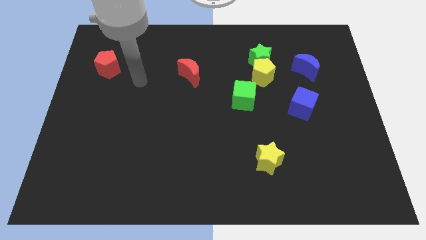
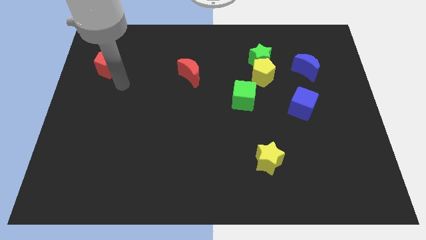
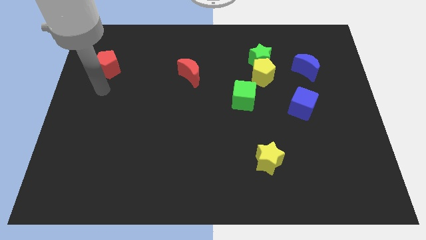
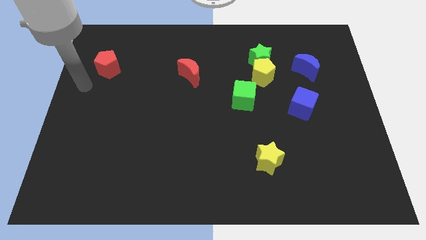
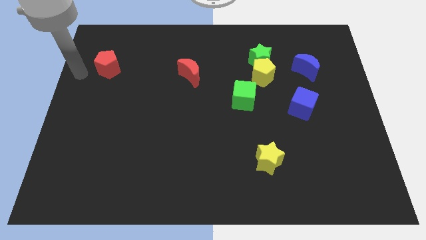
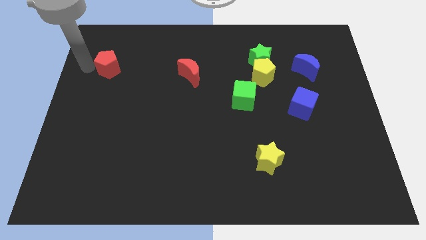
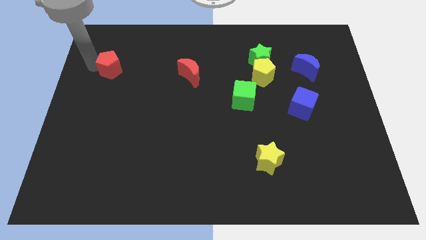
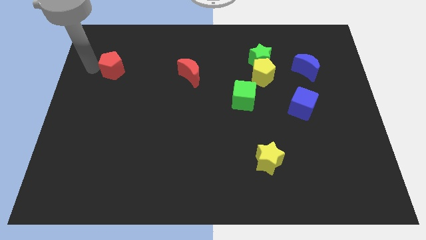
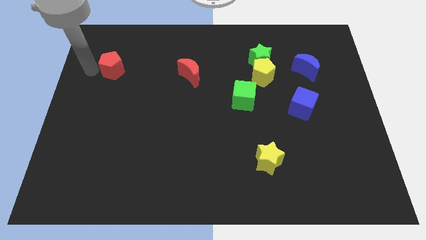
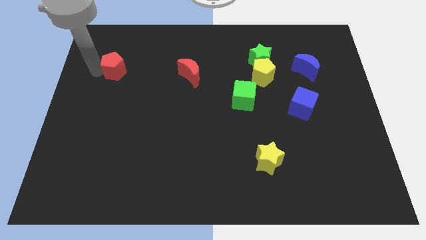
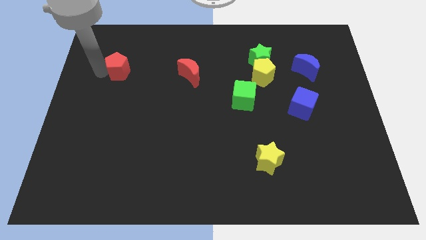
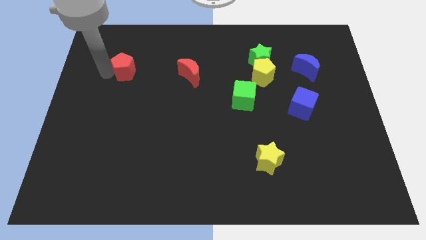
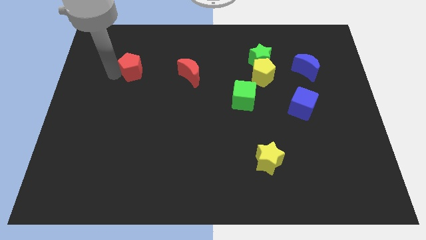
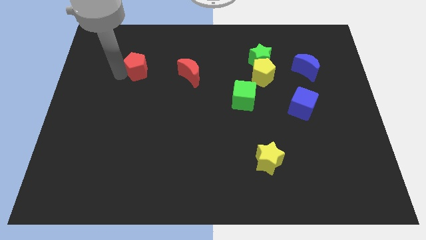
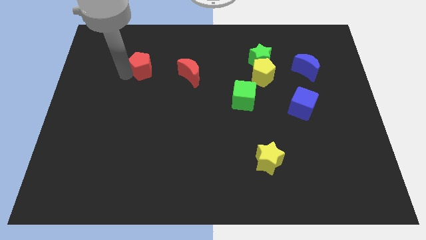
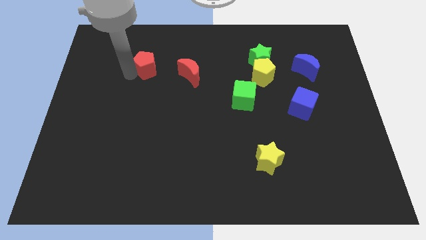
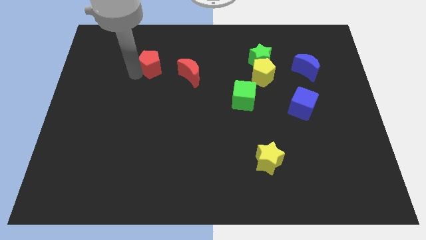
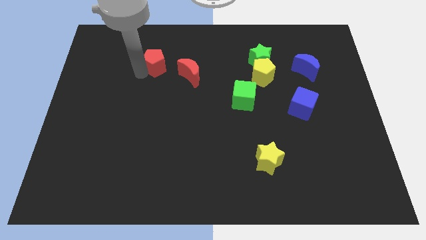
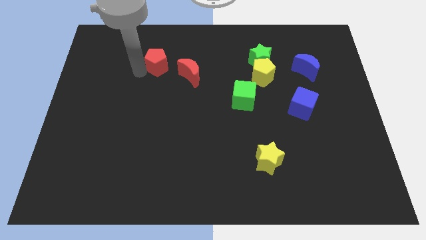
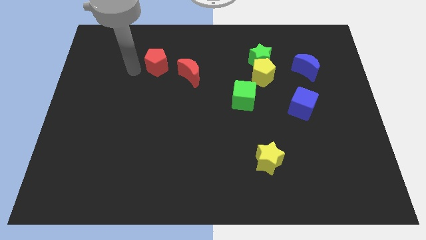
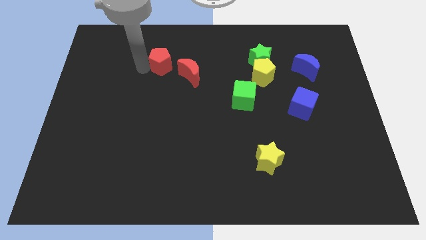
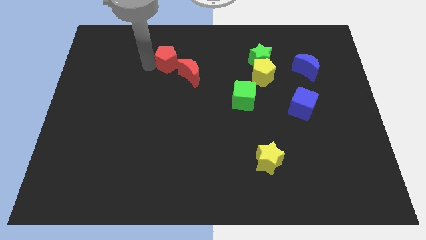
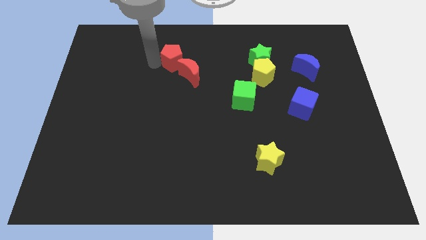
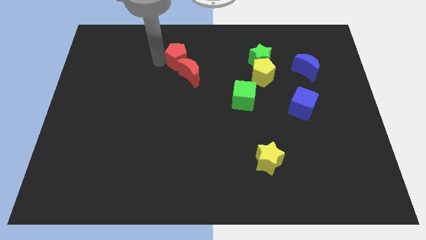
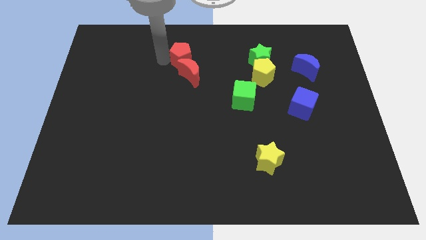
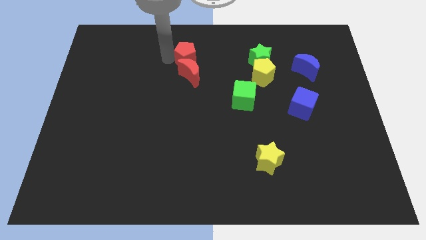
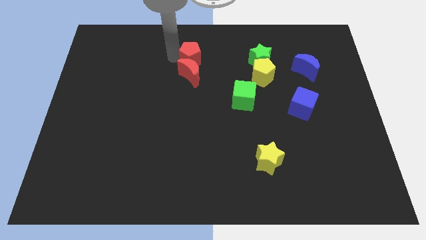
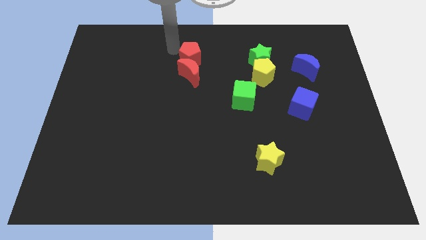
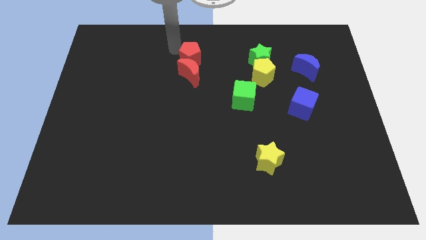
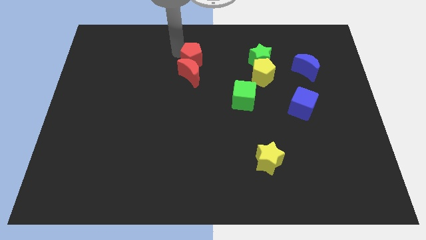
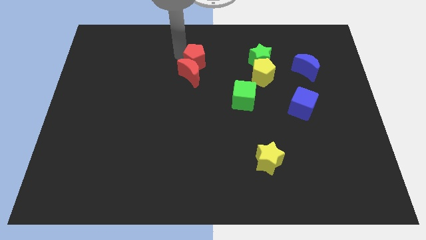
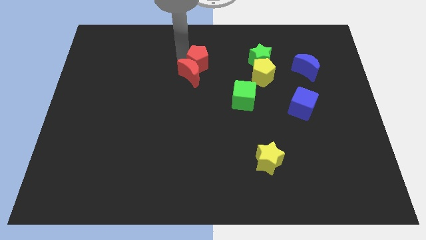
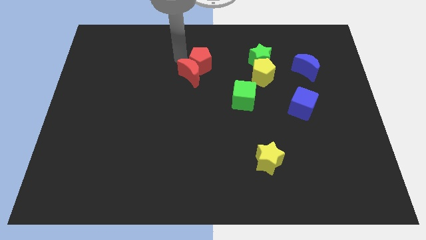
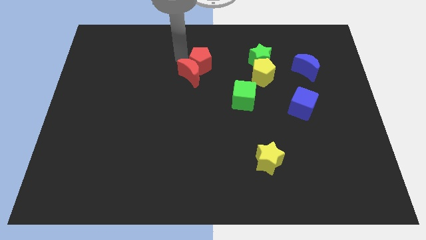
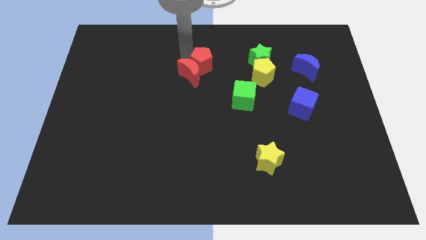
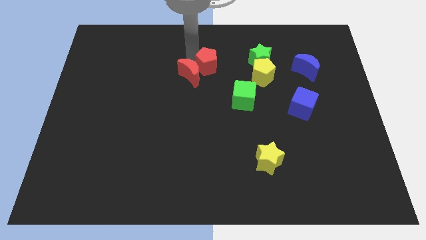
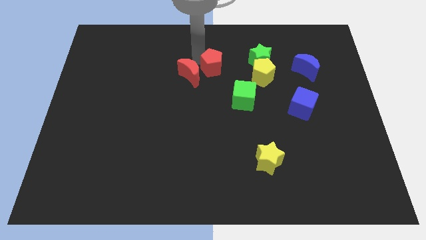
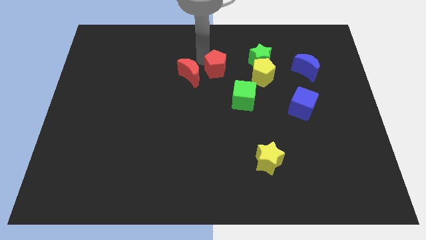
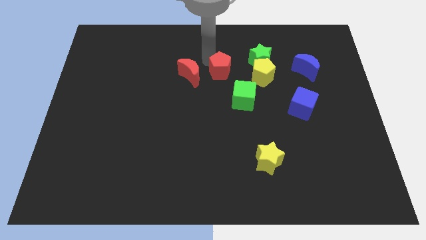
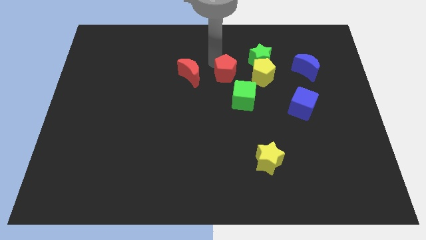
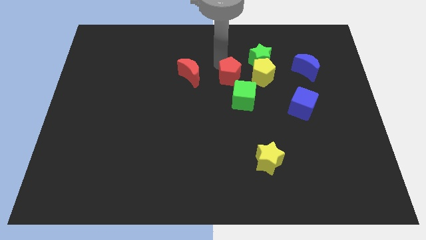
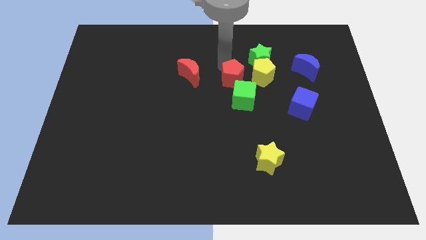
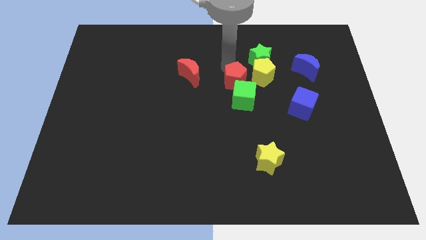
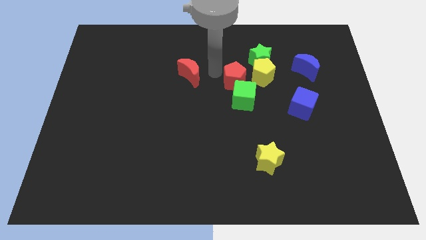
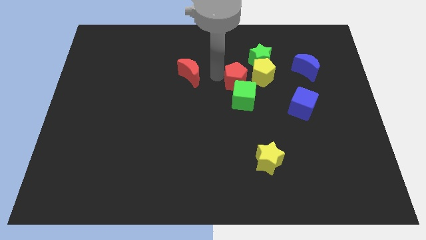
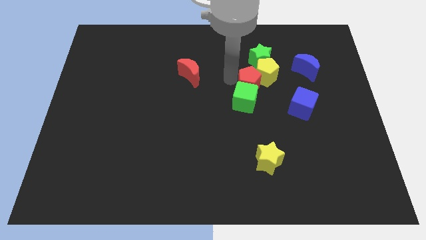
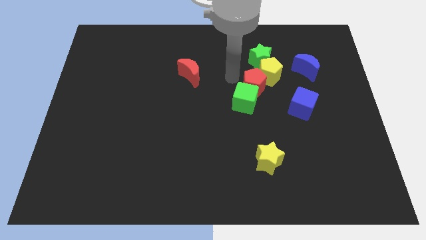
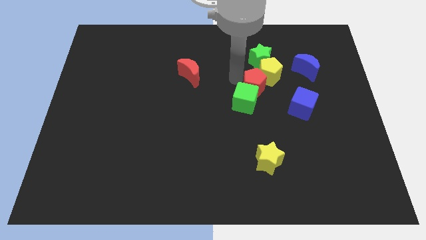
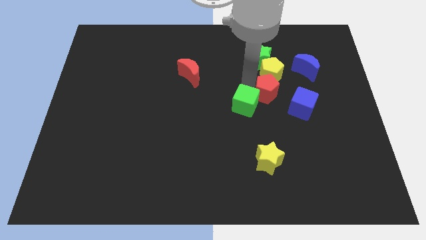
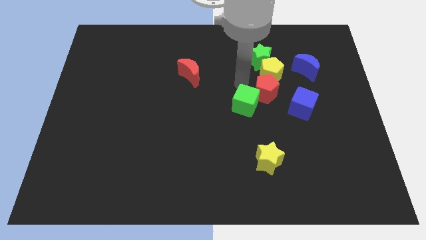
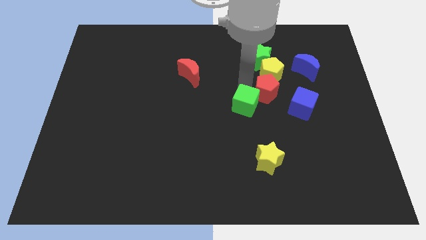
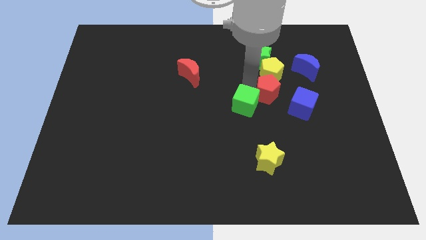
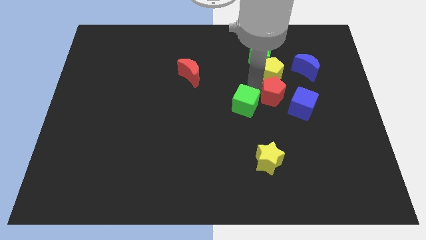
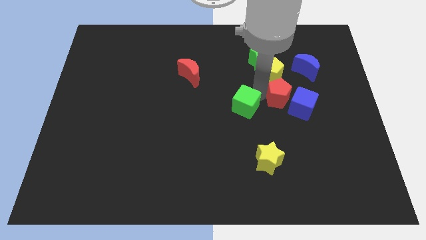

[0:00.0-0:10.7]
put the red pentagon next to the blue cube

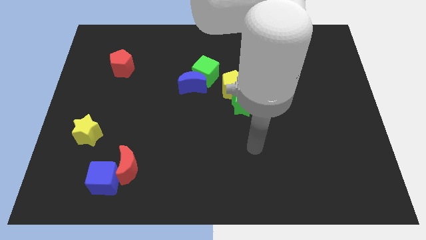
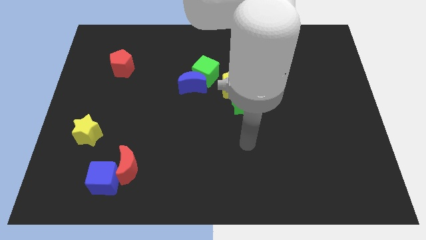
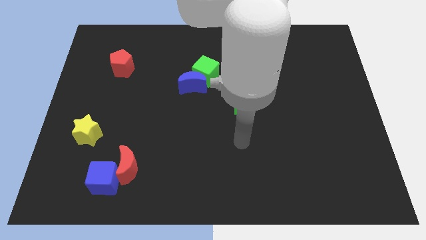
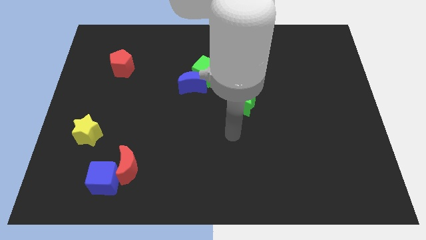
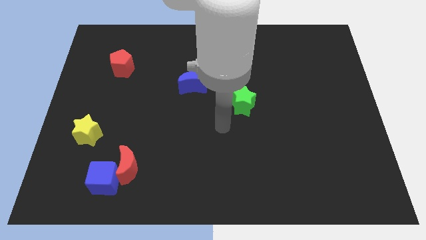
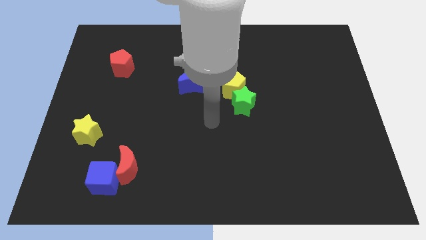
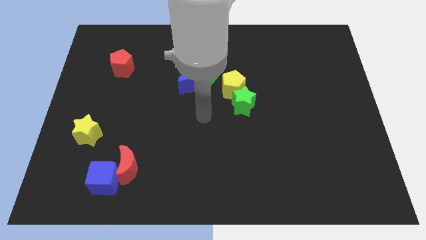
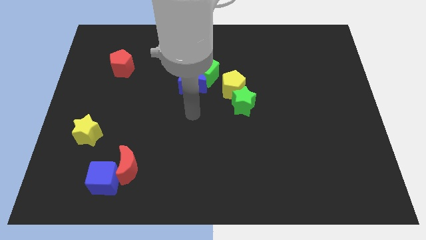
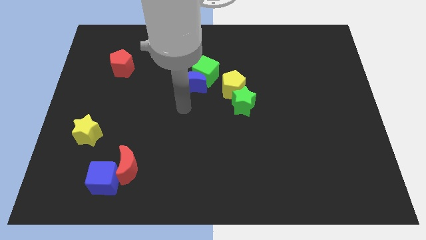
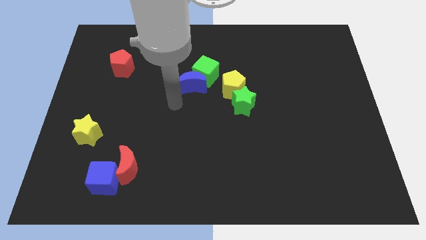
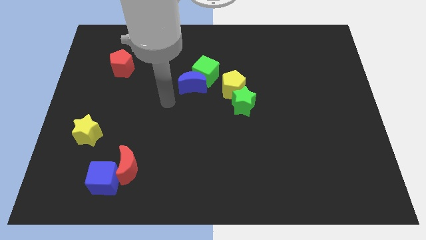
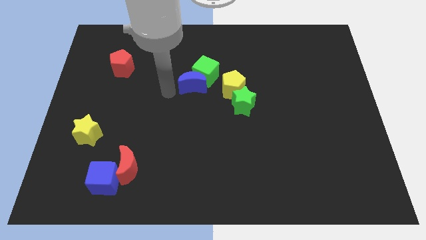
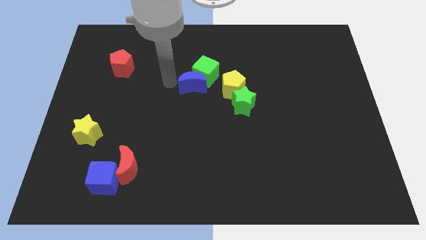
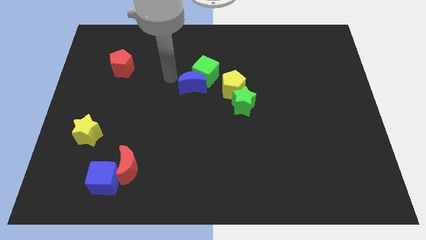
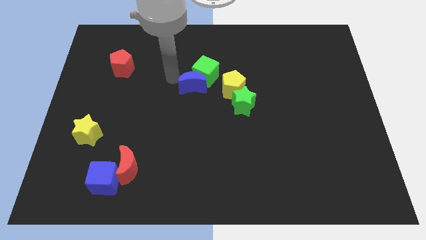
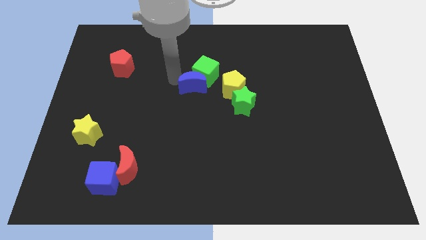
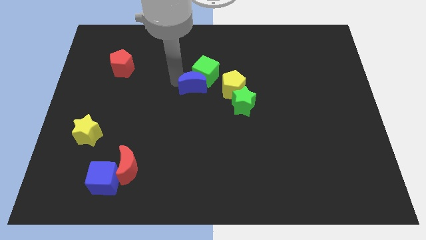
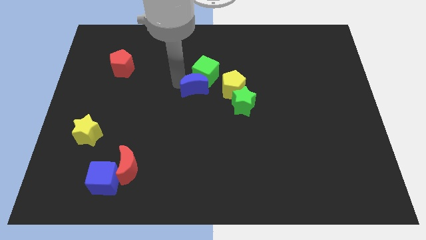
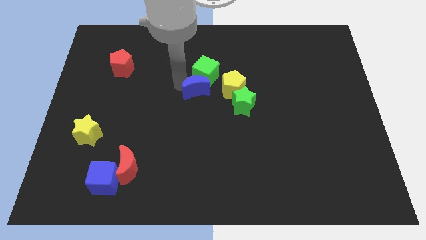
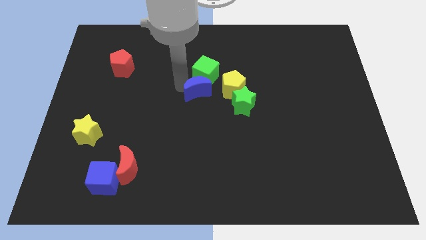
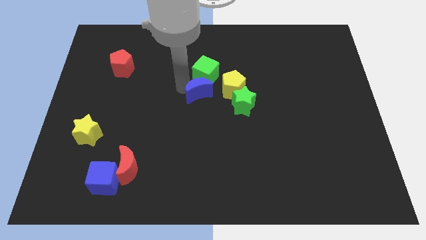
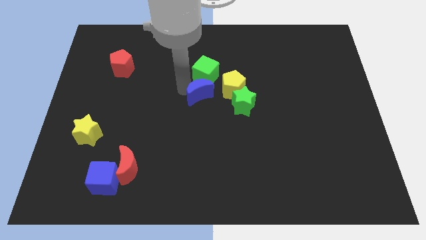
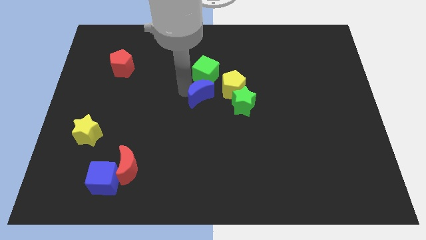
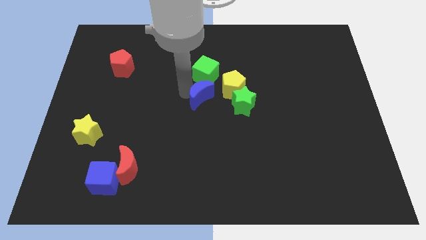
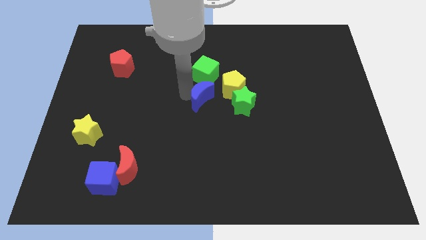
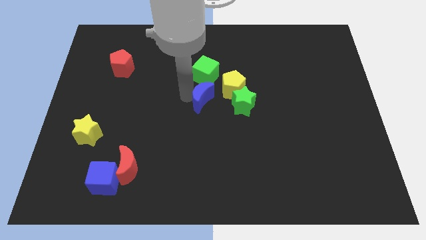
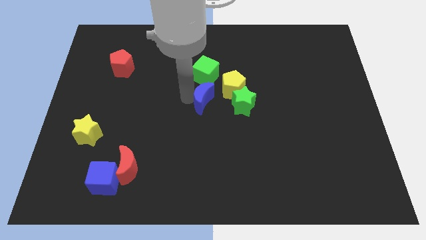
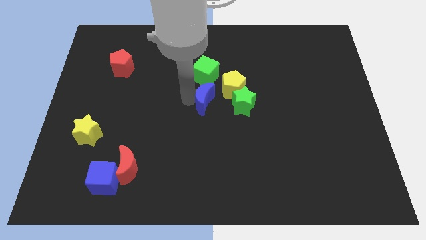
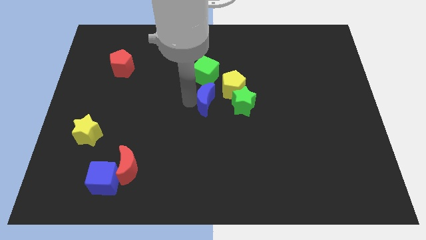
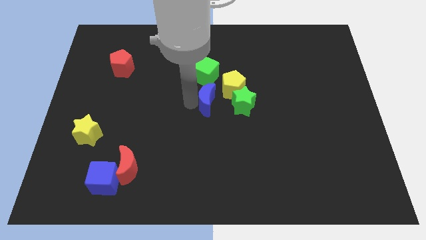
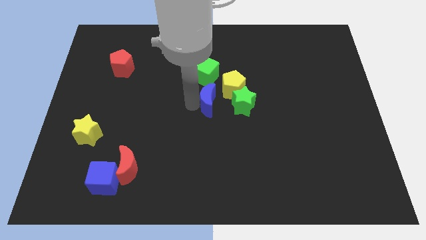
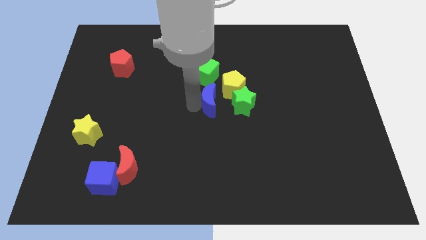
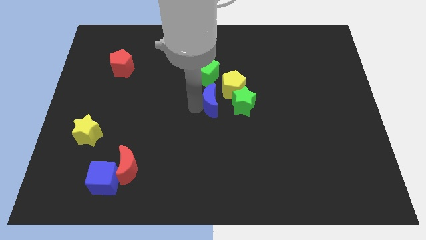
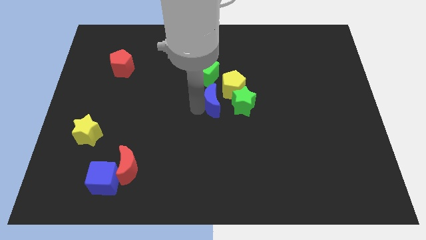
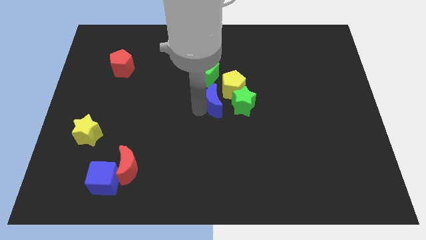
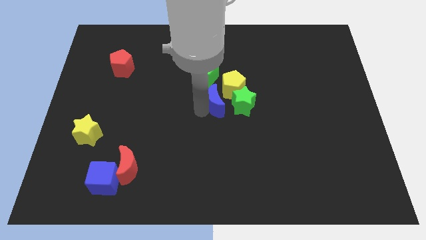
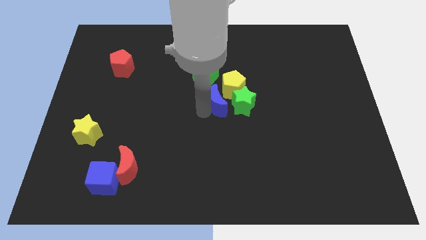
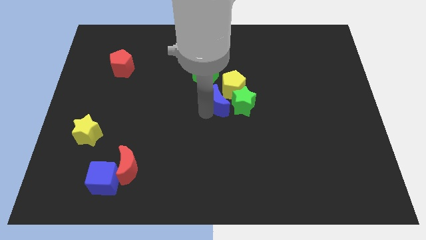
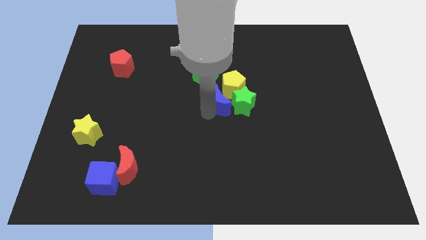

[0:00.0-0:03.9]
push the blue moon to the green star
